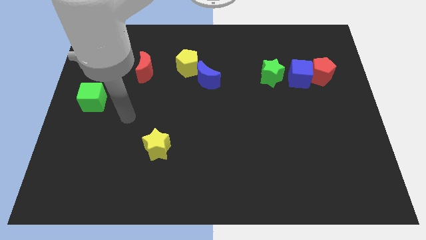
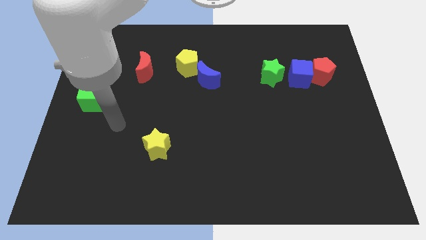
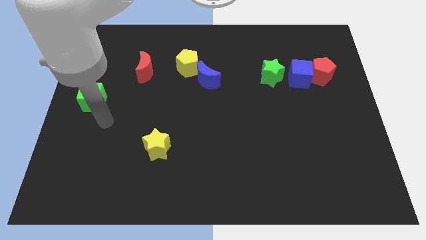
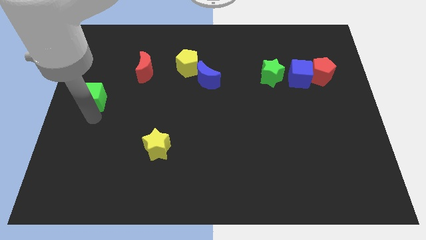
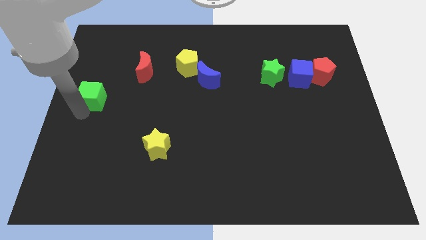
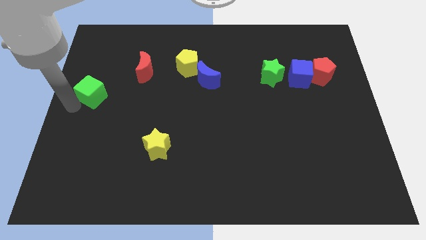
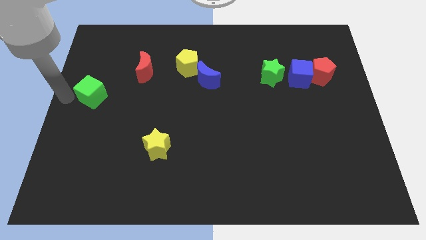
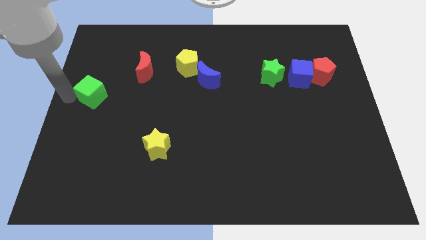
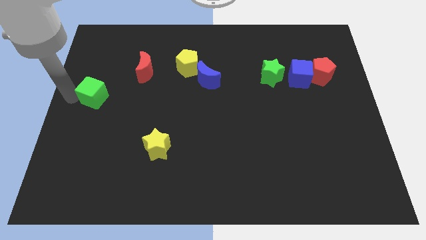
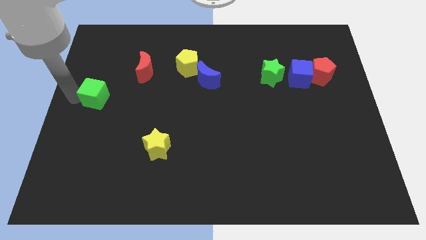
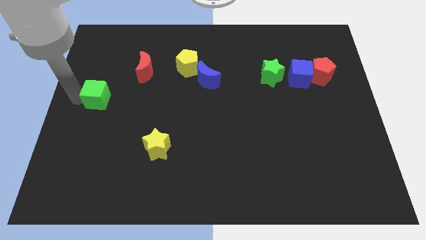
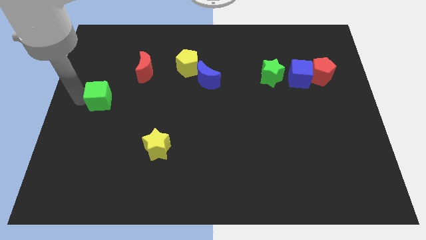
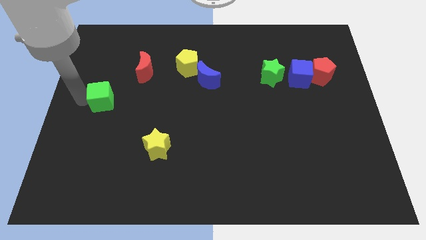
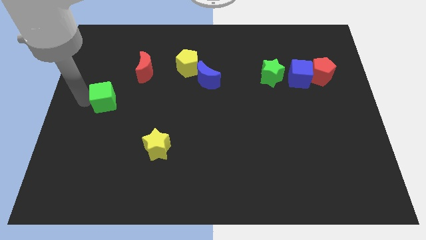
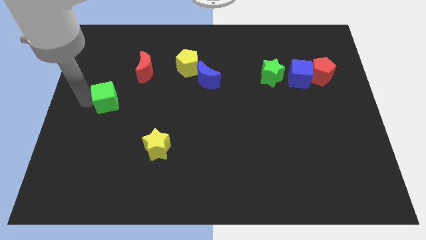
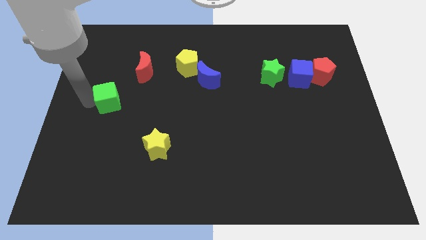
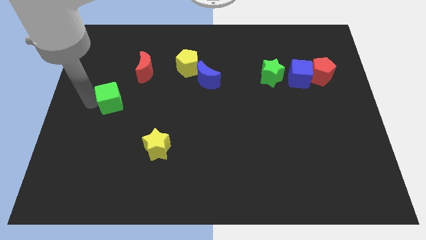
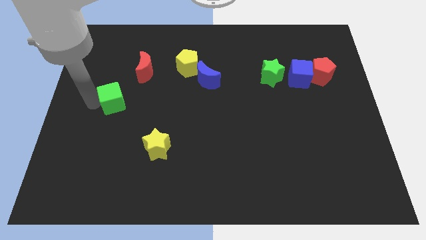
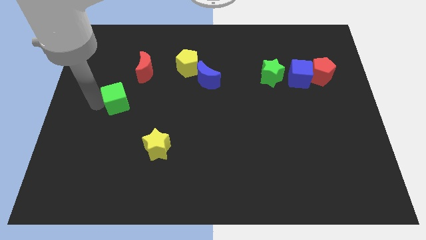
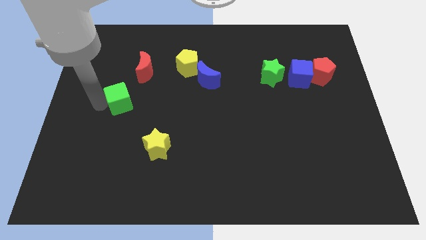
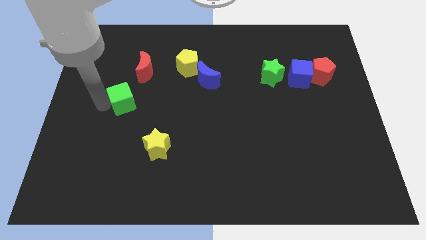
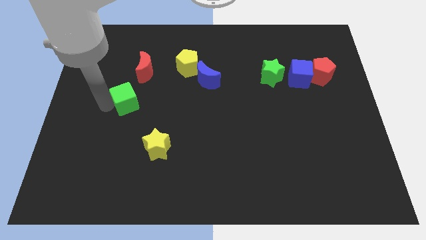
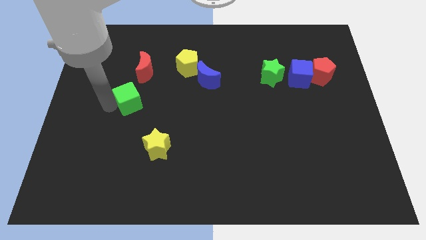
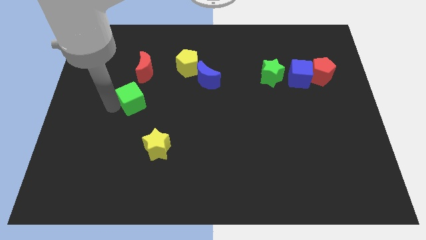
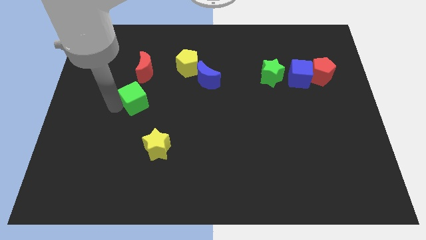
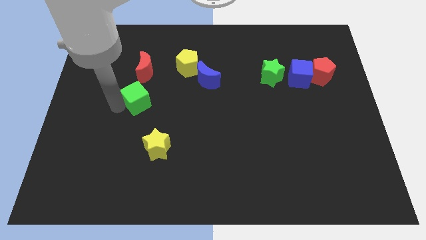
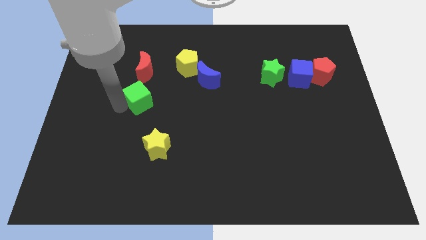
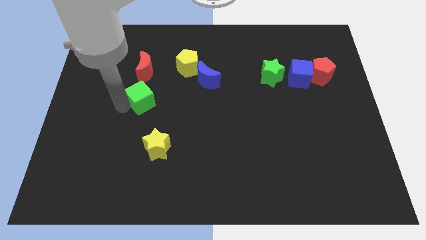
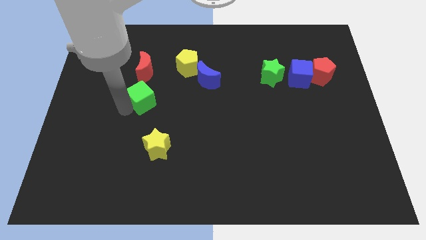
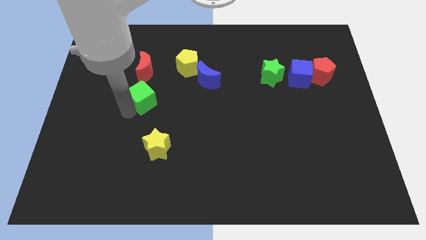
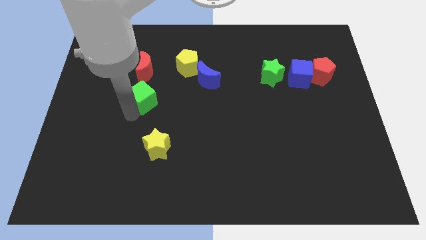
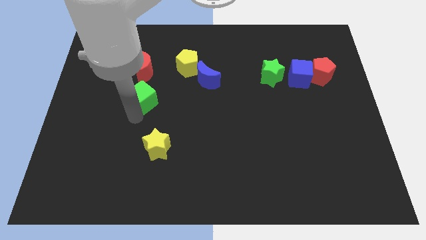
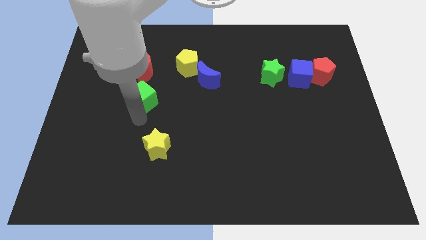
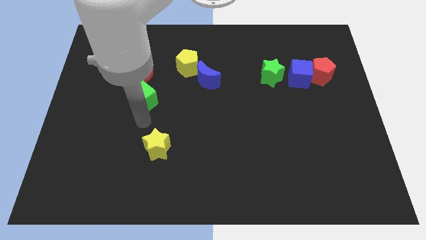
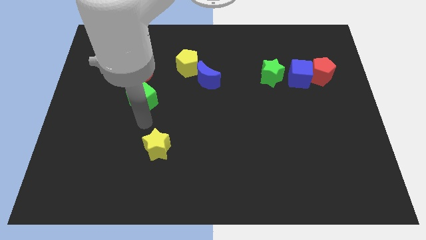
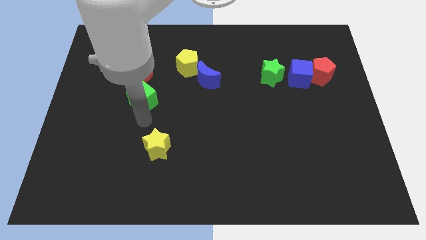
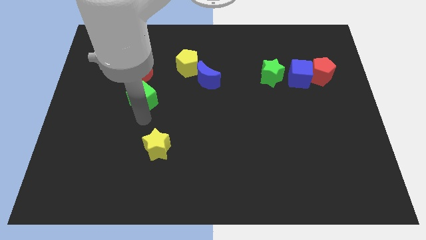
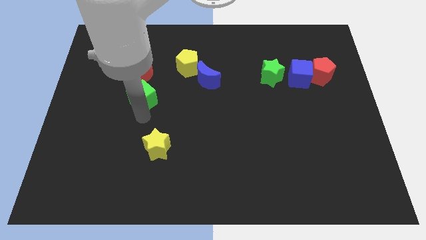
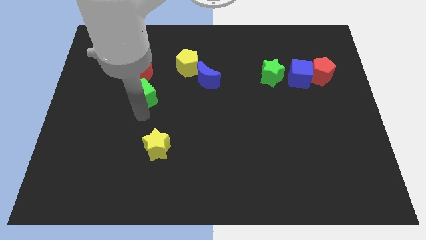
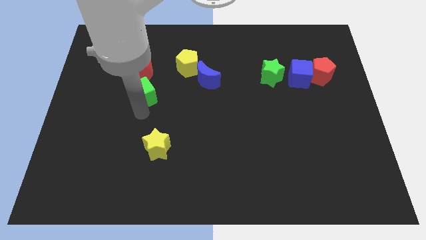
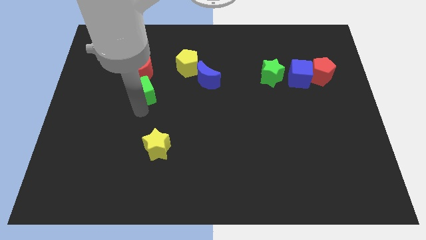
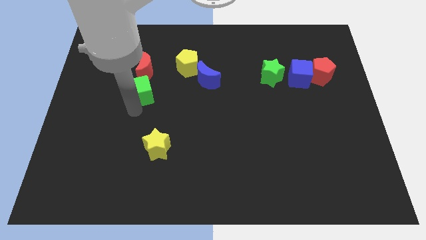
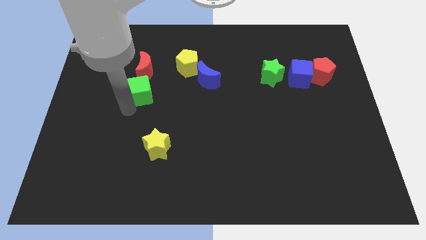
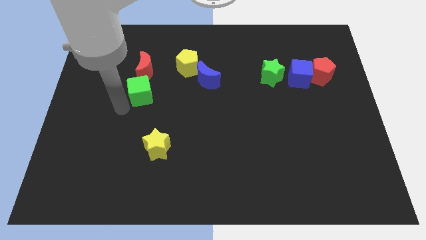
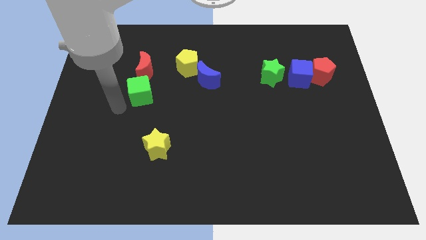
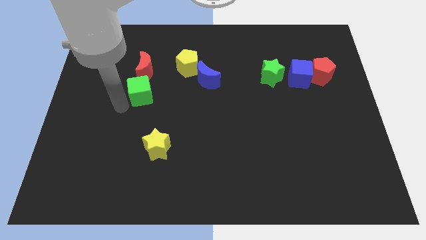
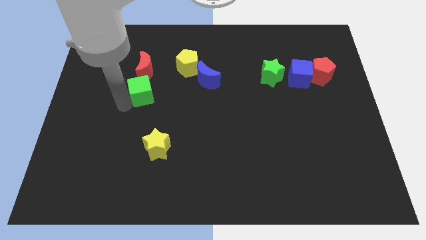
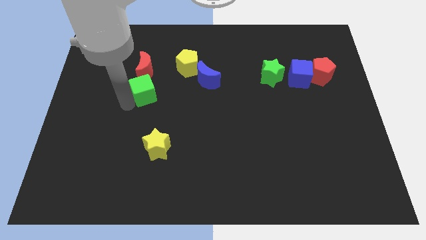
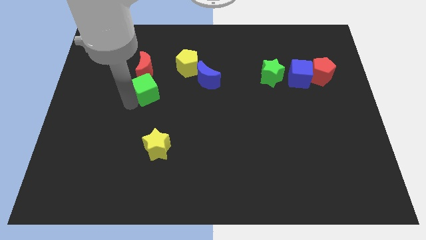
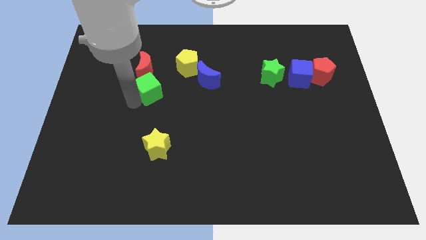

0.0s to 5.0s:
put the green cube to the left of the blue moon

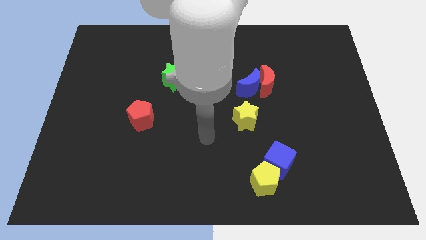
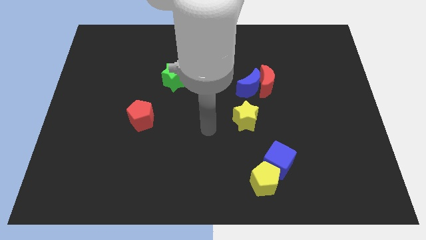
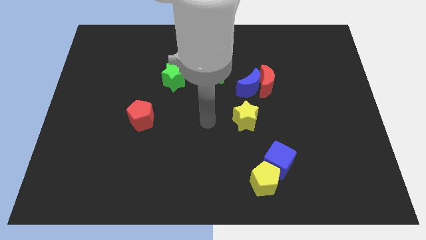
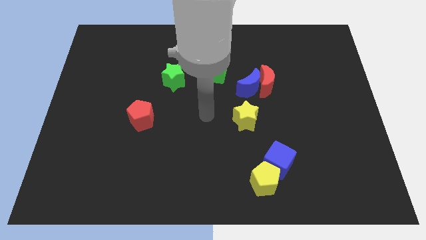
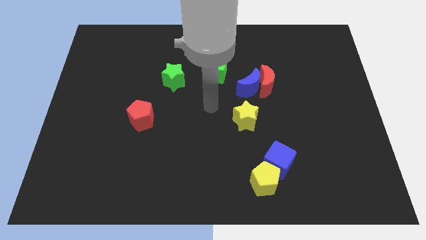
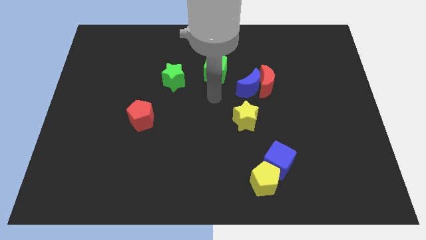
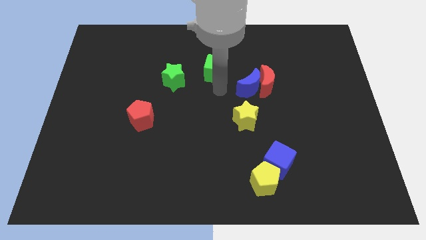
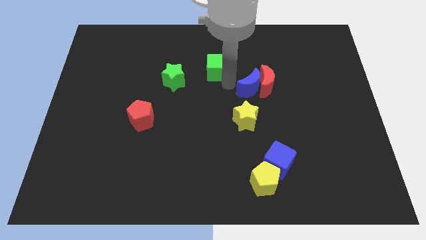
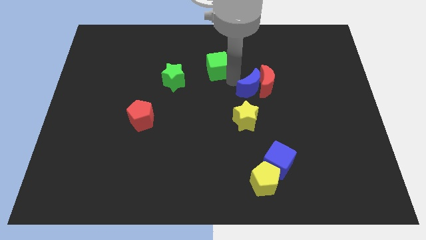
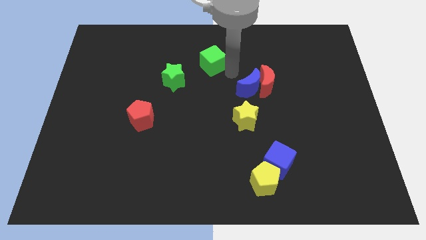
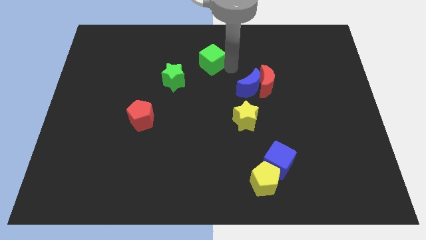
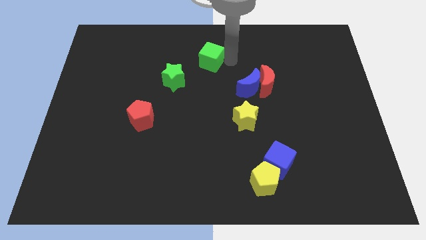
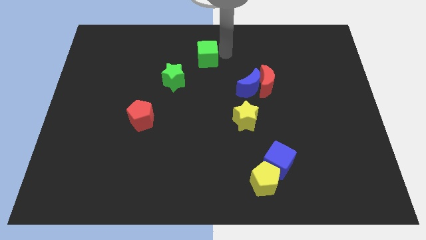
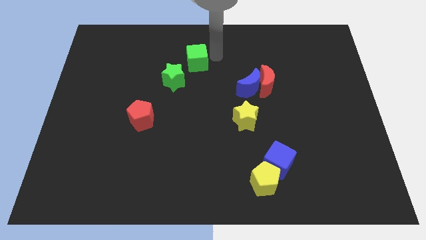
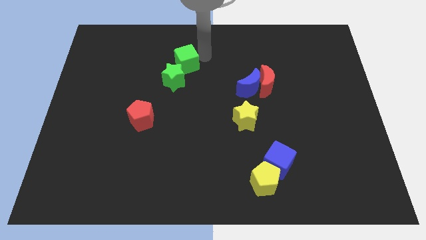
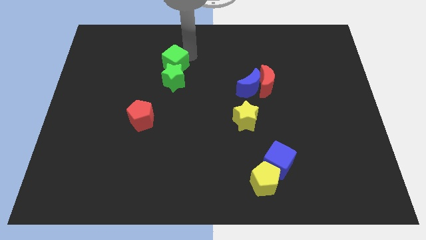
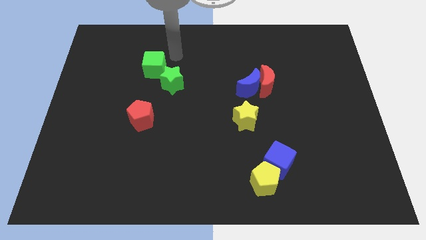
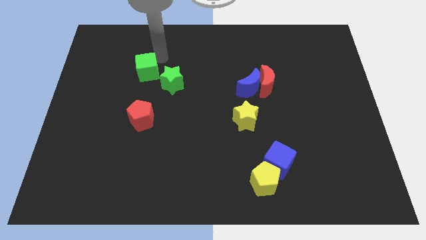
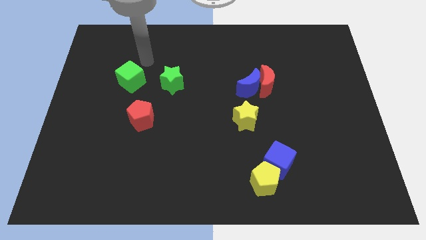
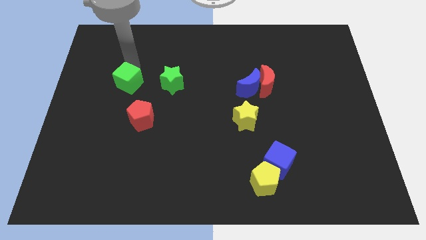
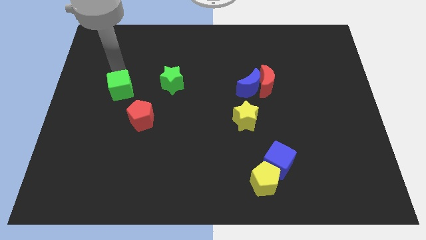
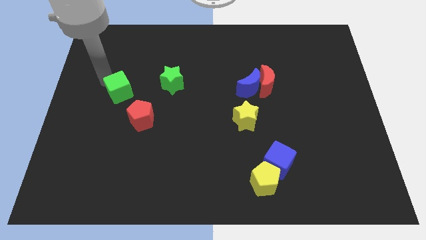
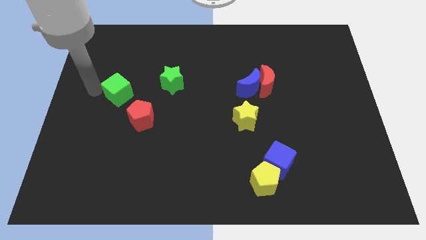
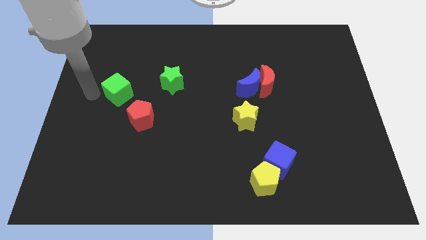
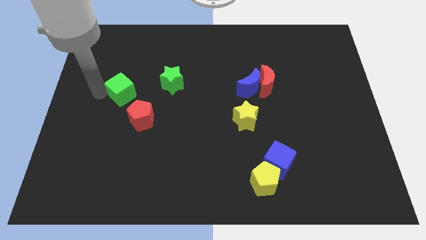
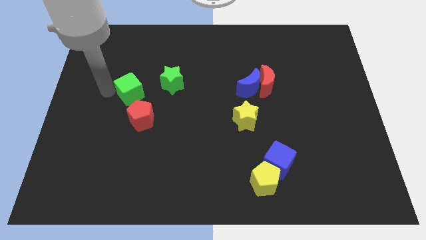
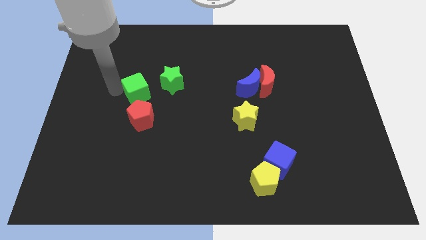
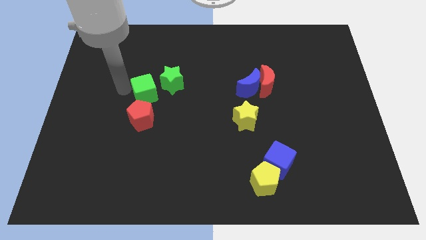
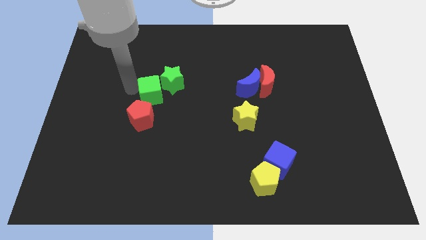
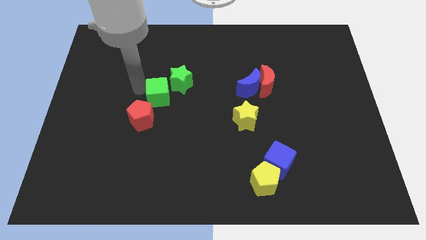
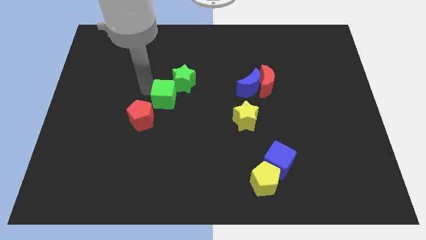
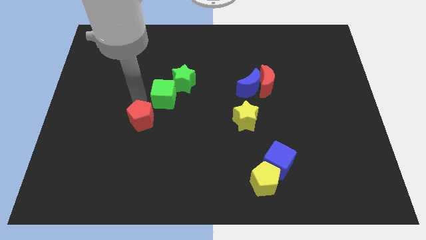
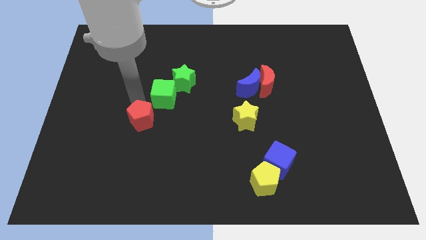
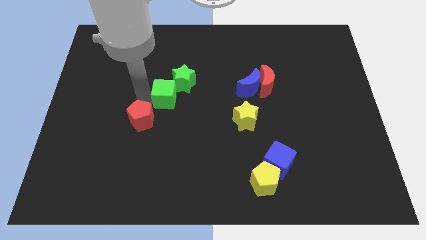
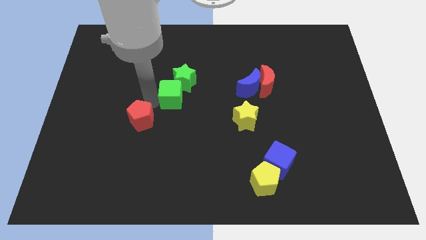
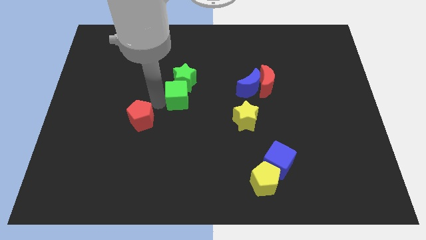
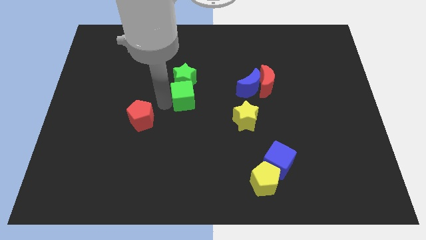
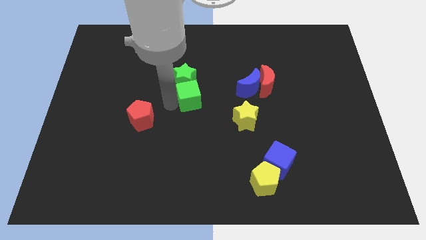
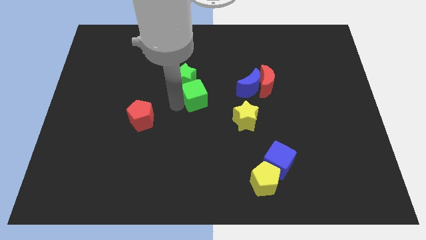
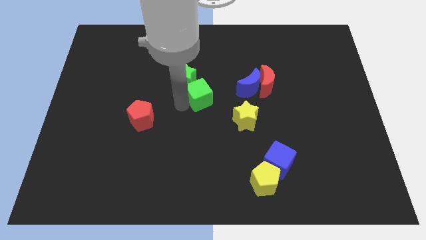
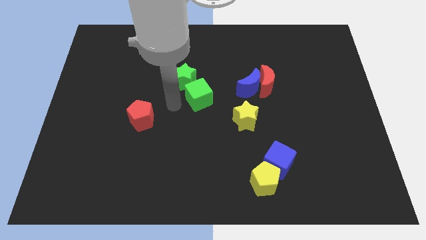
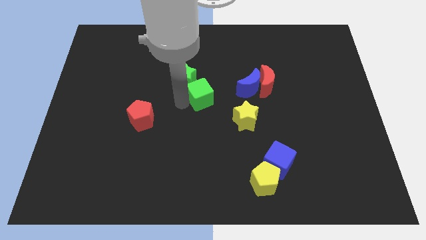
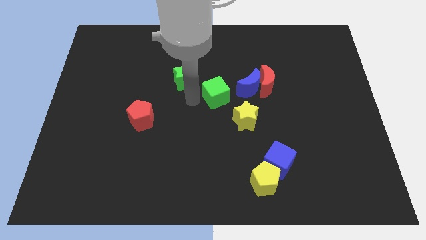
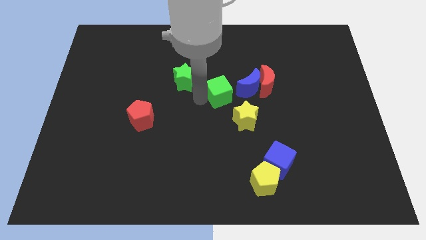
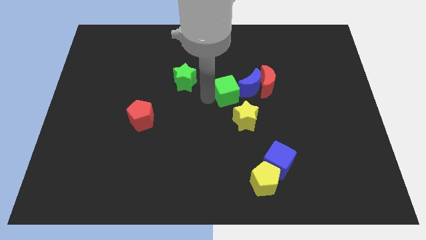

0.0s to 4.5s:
move the green cube above the yellow star
